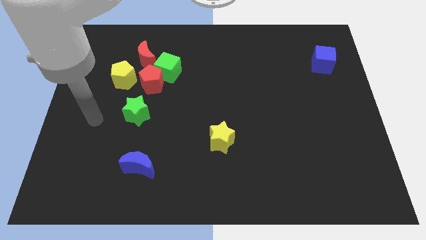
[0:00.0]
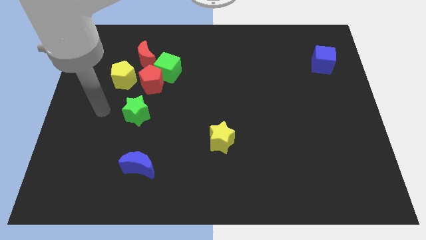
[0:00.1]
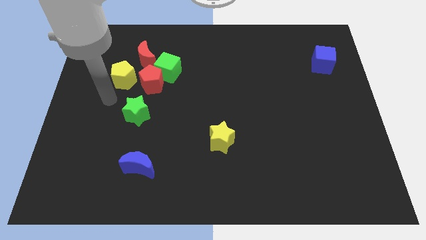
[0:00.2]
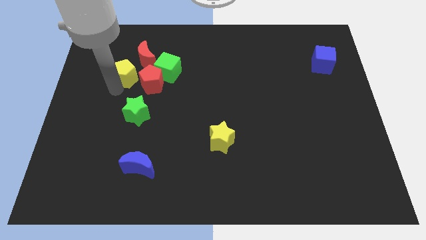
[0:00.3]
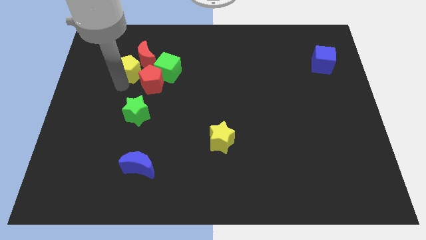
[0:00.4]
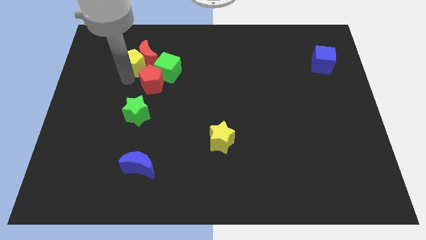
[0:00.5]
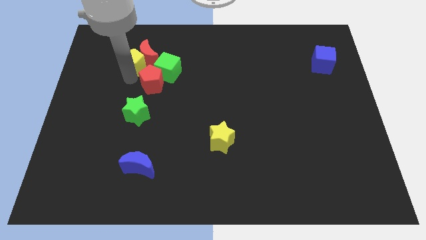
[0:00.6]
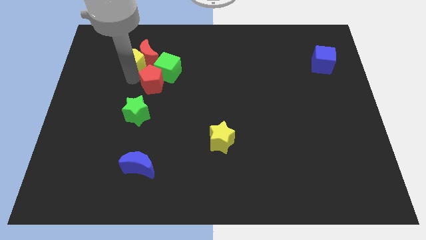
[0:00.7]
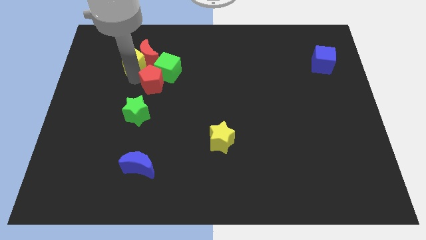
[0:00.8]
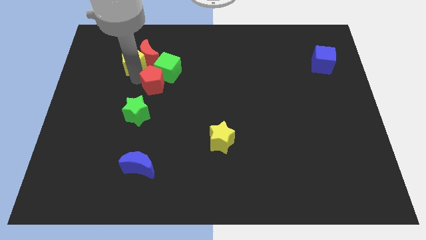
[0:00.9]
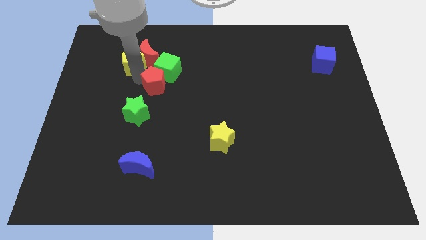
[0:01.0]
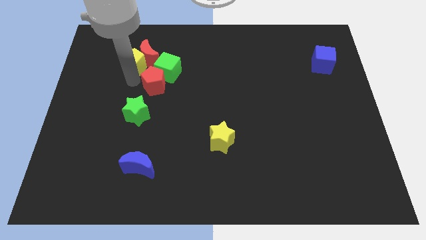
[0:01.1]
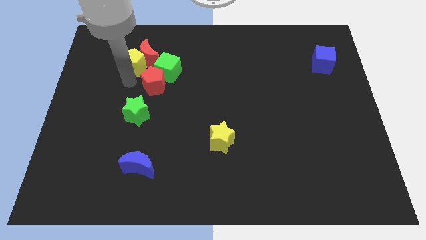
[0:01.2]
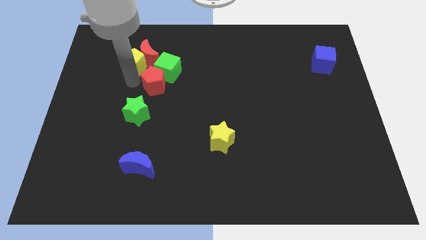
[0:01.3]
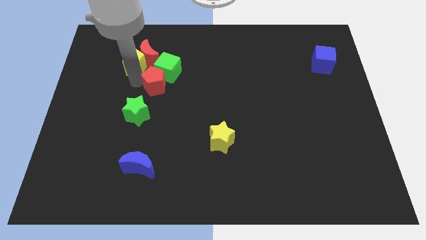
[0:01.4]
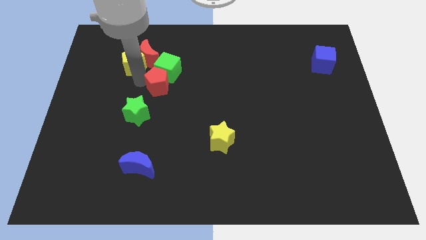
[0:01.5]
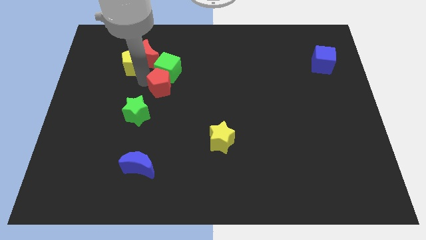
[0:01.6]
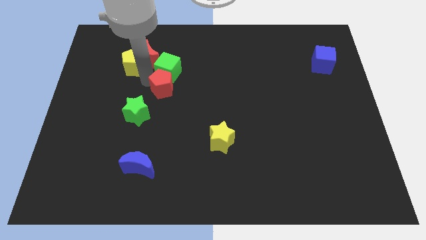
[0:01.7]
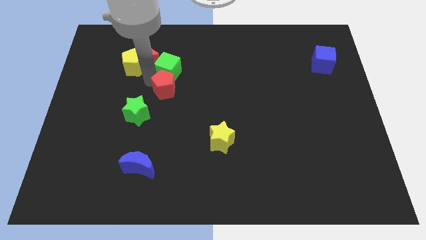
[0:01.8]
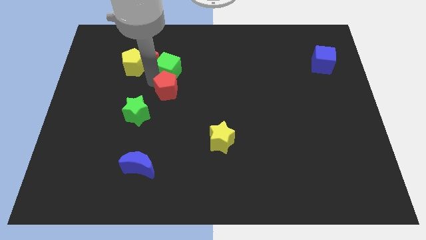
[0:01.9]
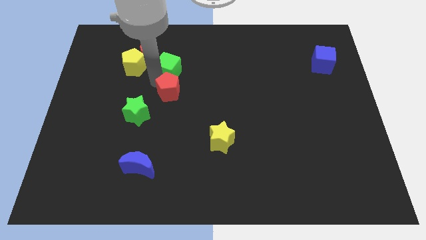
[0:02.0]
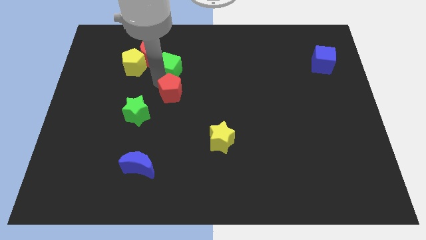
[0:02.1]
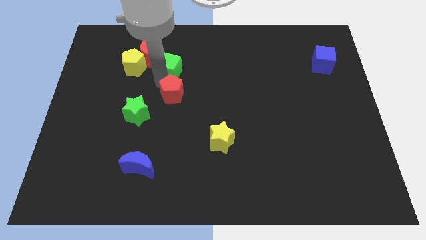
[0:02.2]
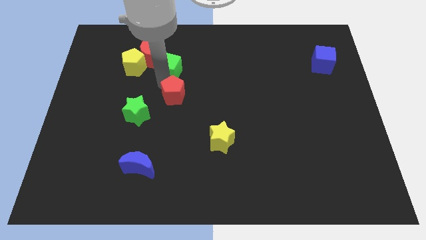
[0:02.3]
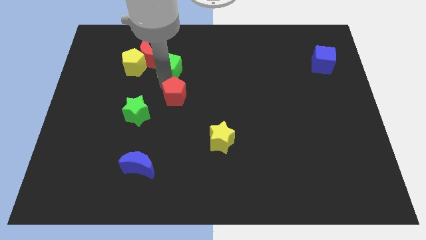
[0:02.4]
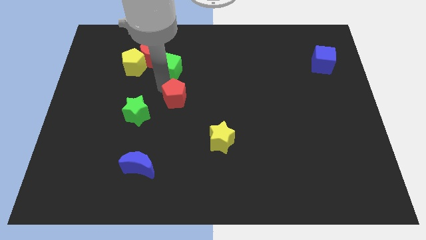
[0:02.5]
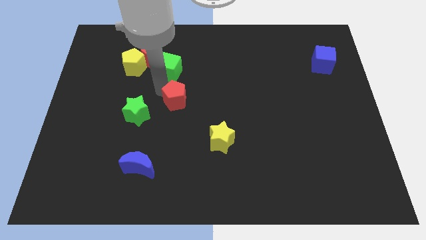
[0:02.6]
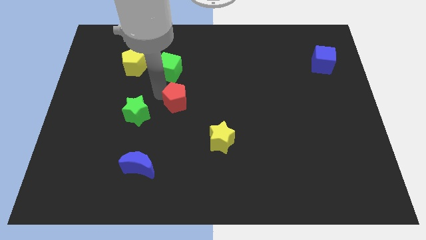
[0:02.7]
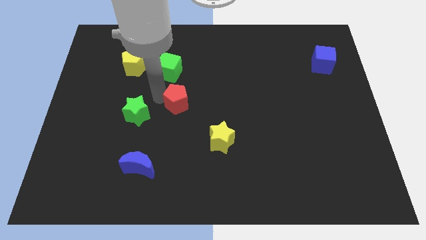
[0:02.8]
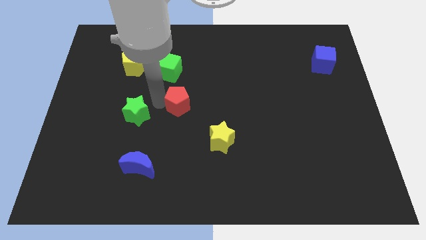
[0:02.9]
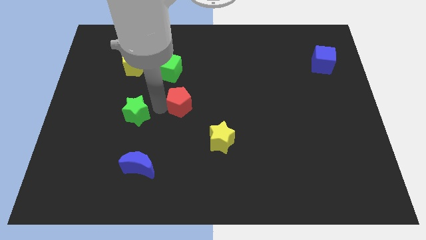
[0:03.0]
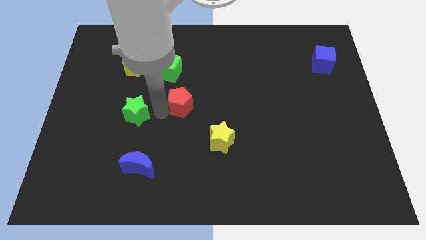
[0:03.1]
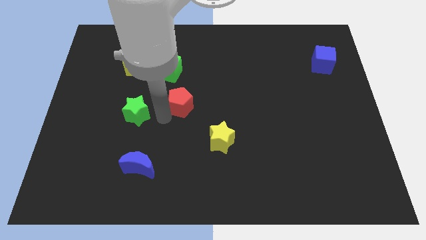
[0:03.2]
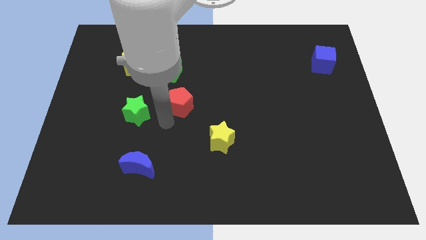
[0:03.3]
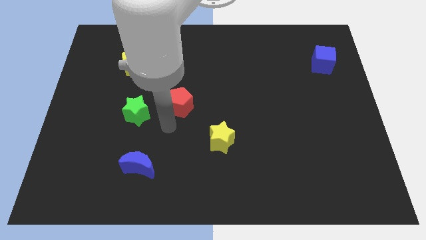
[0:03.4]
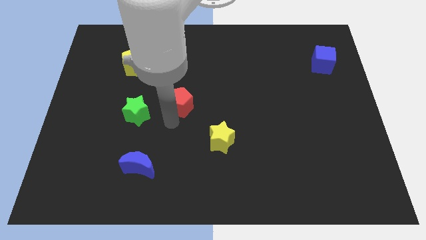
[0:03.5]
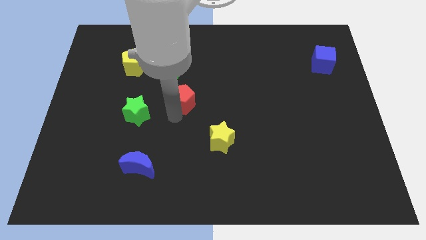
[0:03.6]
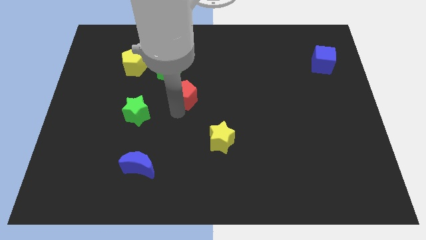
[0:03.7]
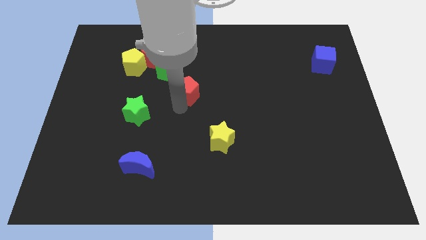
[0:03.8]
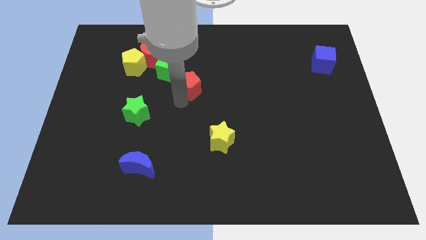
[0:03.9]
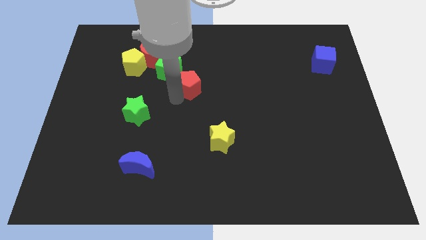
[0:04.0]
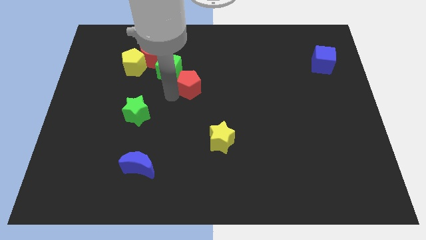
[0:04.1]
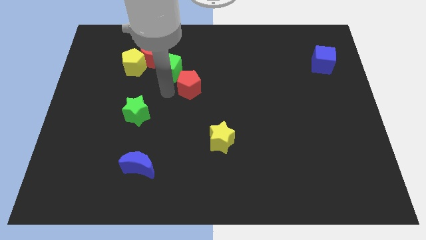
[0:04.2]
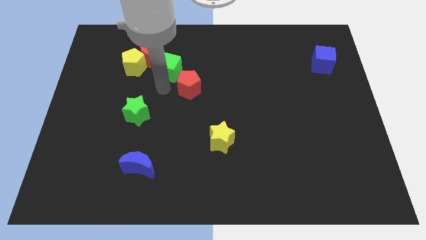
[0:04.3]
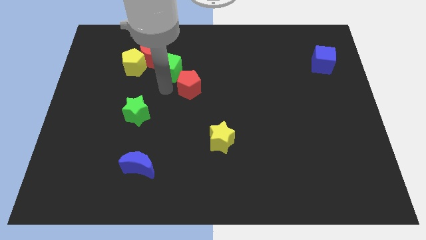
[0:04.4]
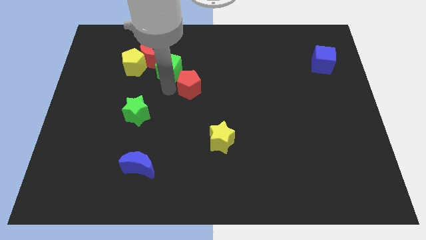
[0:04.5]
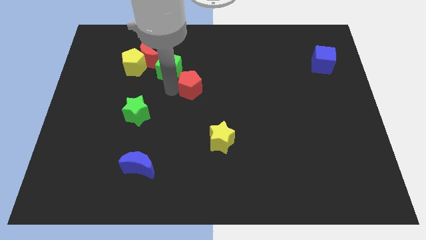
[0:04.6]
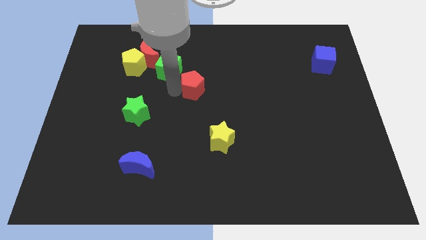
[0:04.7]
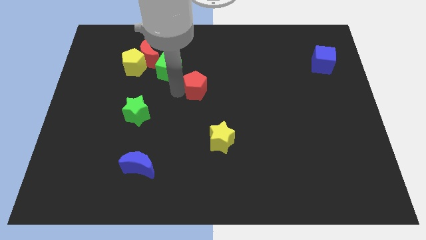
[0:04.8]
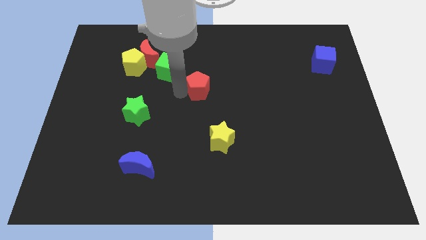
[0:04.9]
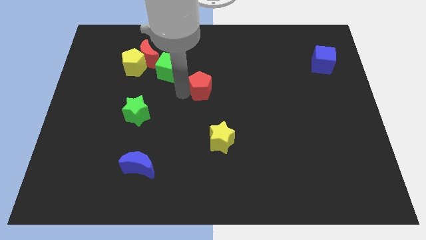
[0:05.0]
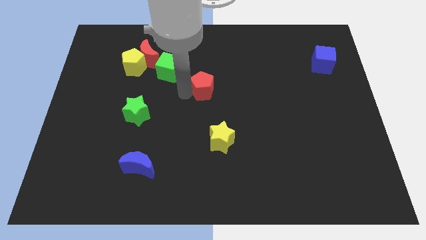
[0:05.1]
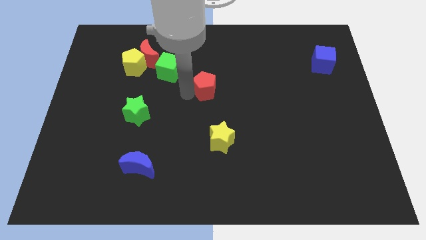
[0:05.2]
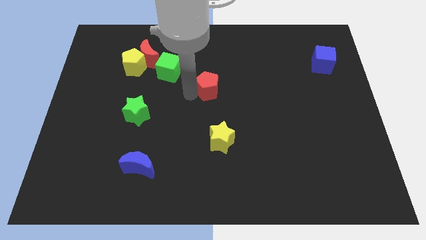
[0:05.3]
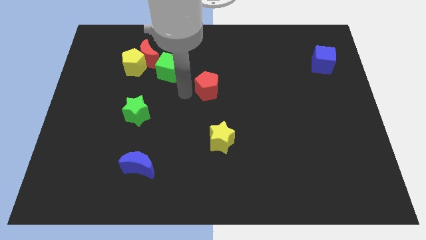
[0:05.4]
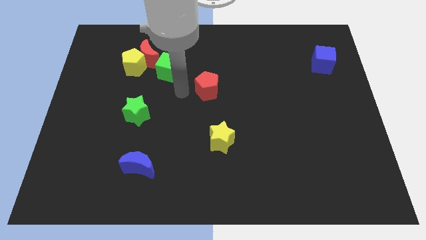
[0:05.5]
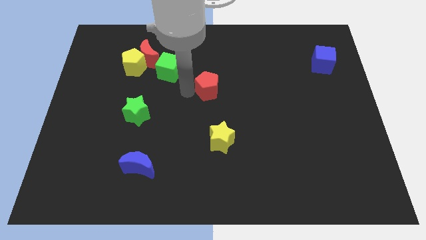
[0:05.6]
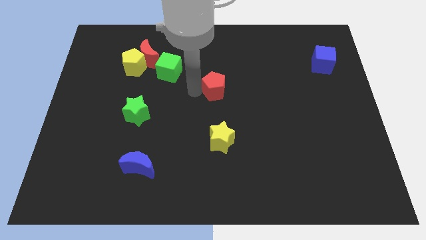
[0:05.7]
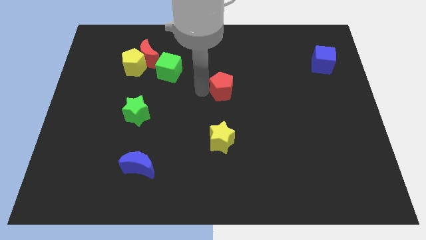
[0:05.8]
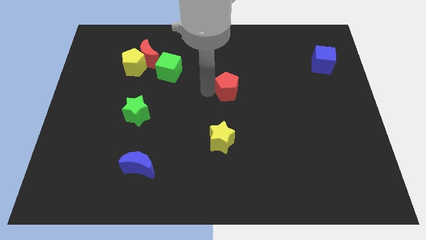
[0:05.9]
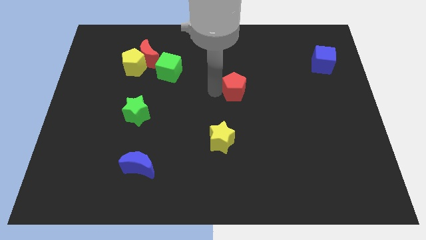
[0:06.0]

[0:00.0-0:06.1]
move the red pentagon to the right

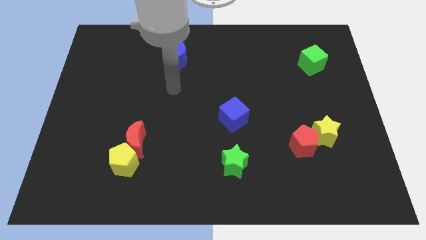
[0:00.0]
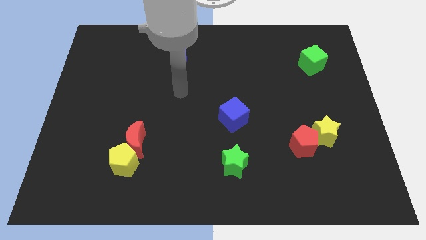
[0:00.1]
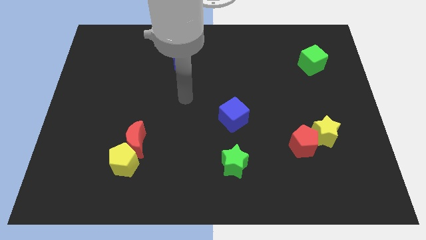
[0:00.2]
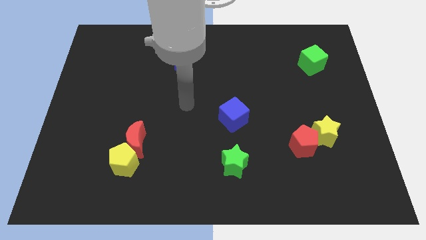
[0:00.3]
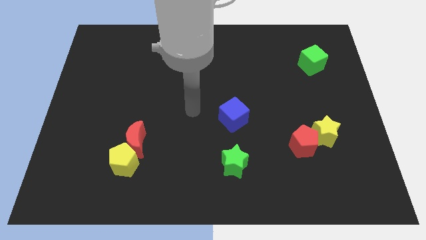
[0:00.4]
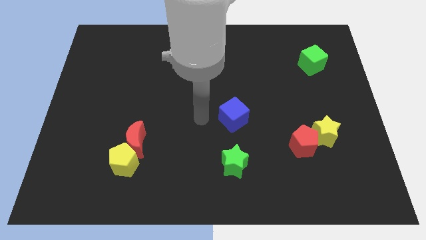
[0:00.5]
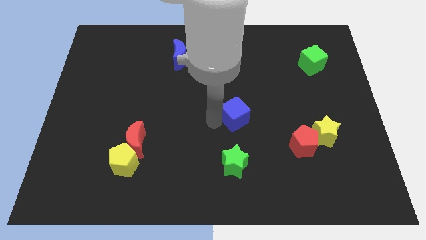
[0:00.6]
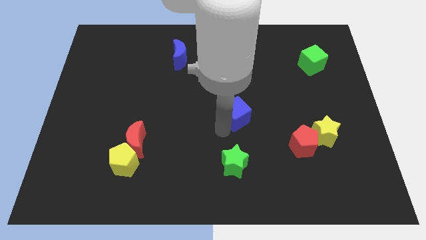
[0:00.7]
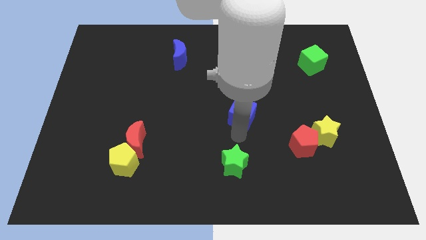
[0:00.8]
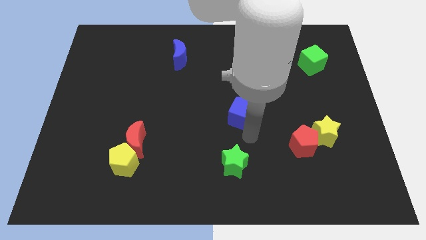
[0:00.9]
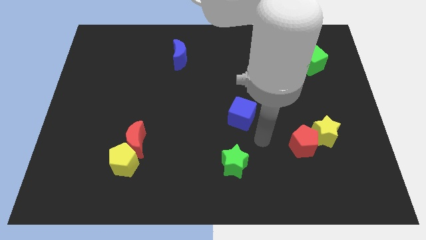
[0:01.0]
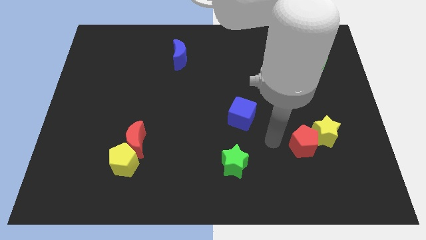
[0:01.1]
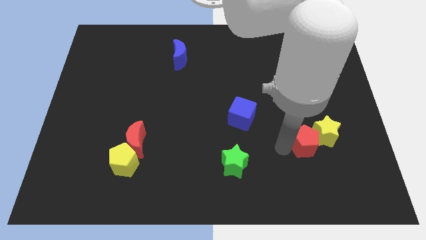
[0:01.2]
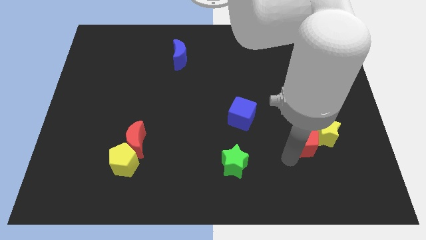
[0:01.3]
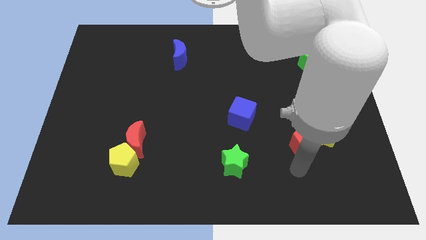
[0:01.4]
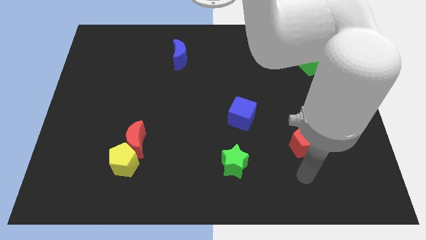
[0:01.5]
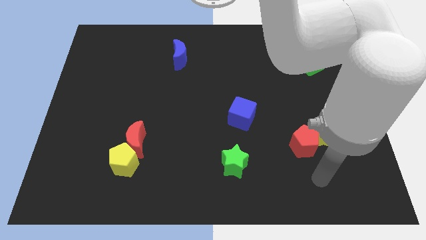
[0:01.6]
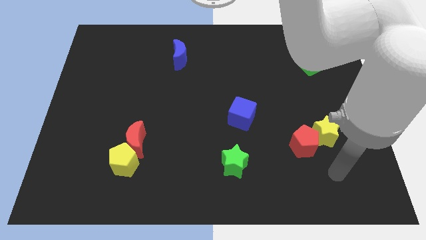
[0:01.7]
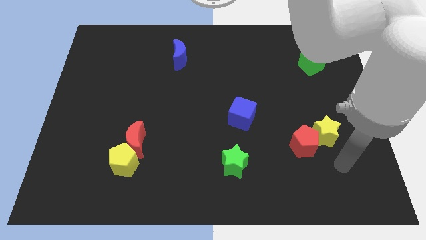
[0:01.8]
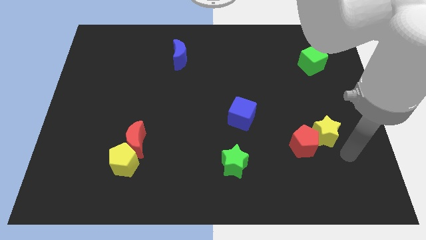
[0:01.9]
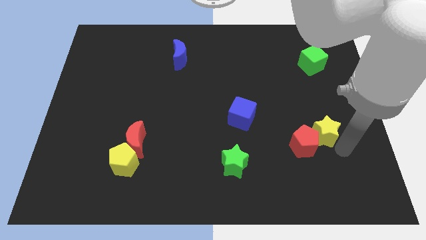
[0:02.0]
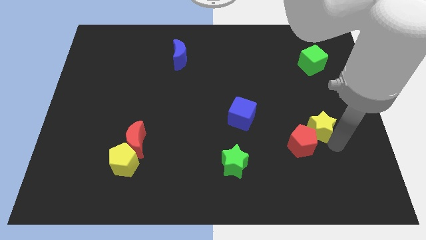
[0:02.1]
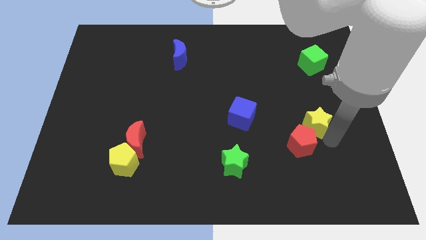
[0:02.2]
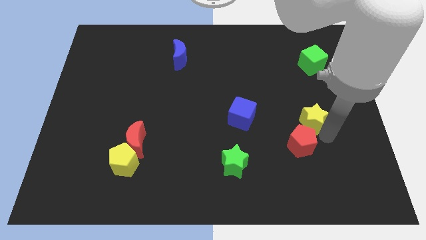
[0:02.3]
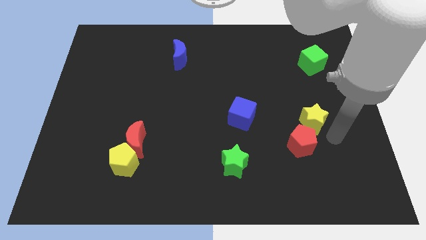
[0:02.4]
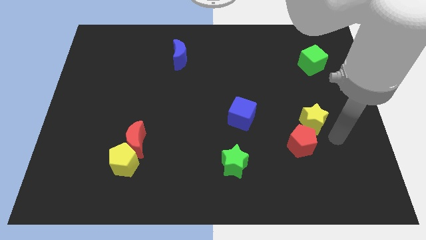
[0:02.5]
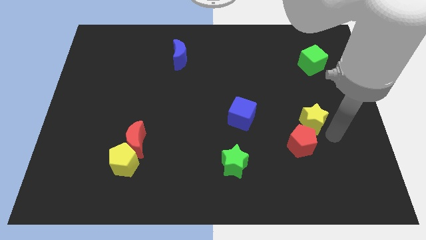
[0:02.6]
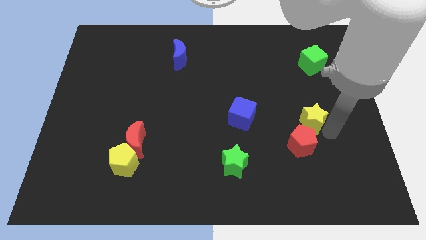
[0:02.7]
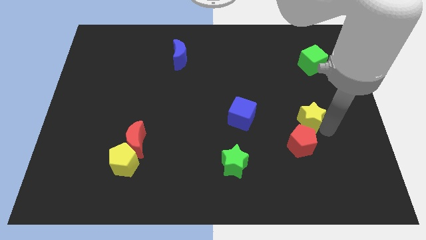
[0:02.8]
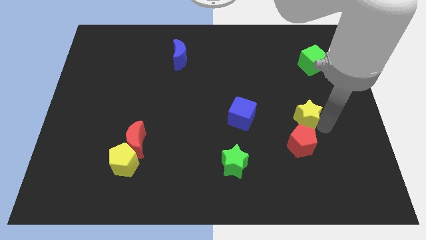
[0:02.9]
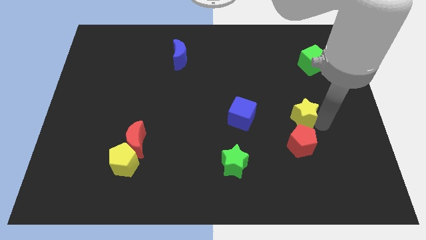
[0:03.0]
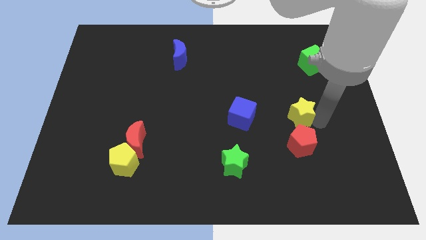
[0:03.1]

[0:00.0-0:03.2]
slightly move the yellow star diagonally upwards and left
